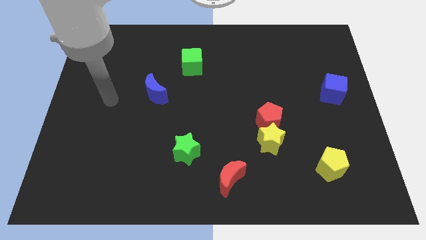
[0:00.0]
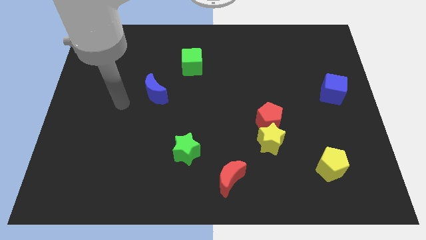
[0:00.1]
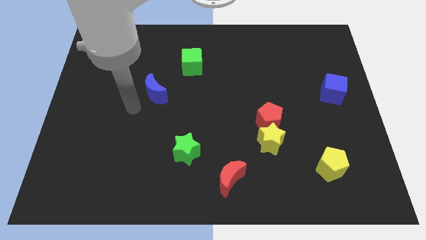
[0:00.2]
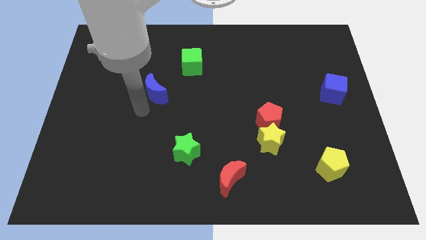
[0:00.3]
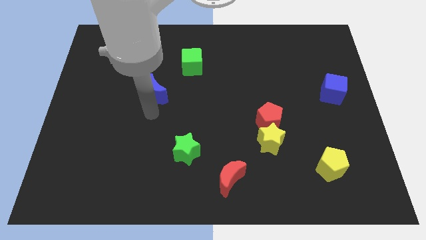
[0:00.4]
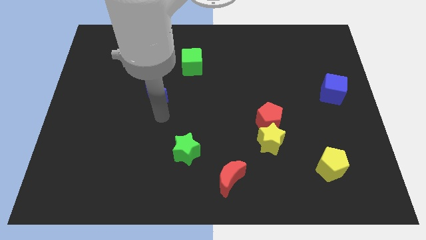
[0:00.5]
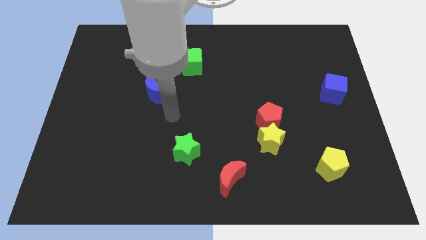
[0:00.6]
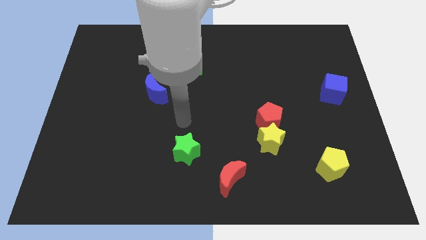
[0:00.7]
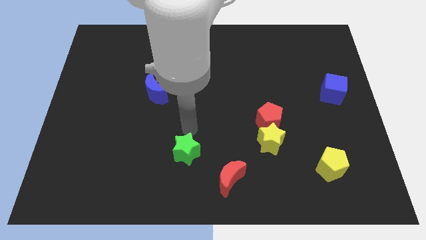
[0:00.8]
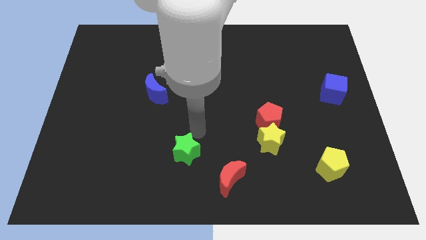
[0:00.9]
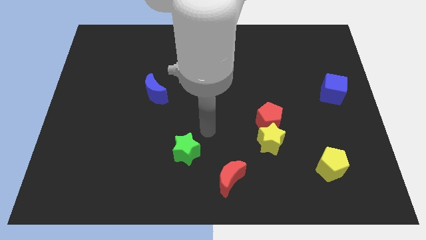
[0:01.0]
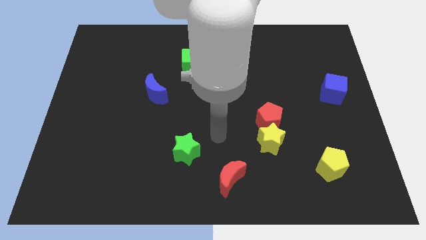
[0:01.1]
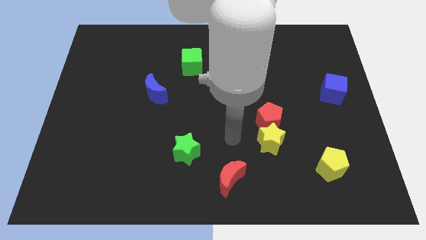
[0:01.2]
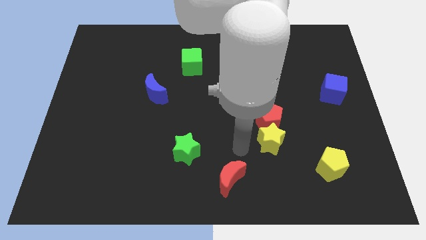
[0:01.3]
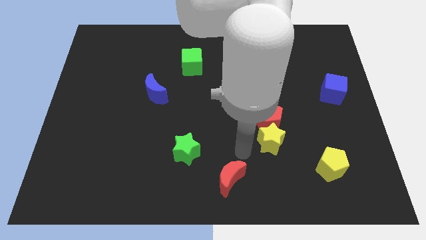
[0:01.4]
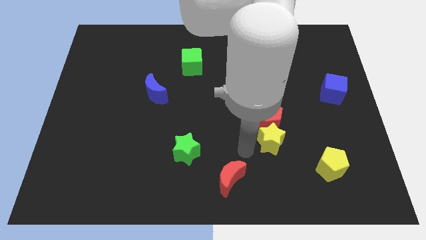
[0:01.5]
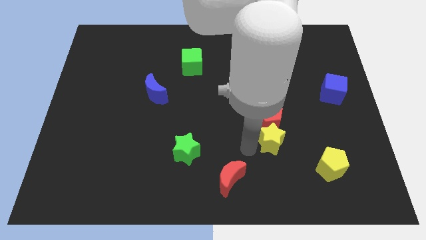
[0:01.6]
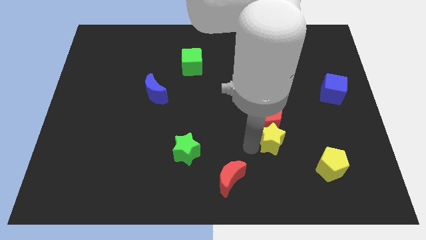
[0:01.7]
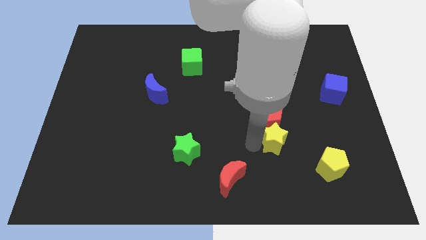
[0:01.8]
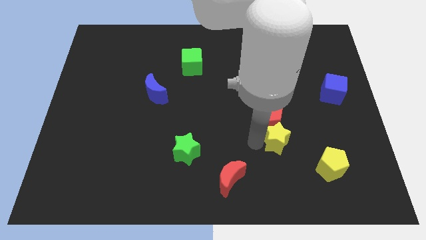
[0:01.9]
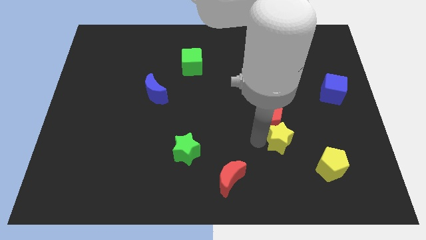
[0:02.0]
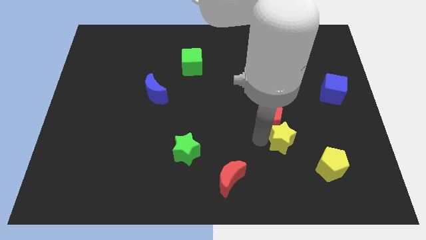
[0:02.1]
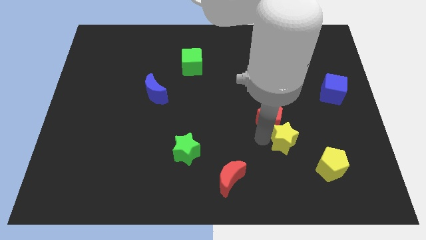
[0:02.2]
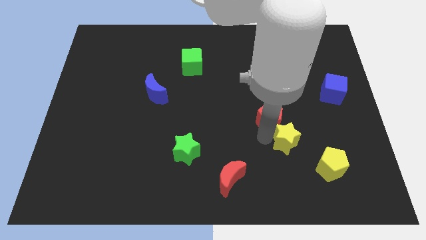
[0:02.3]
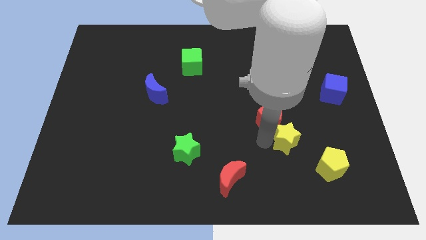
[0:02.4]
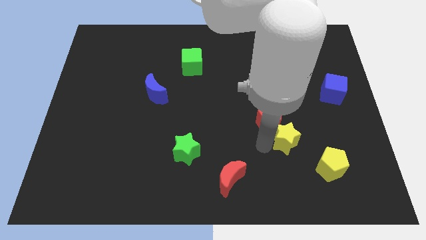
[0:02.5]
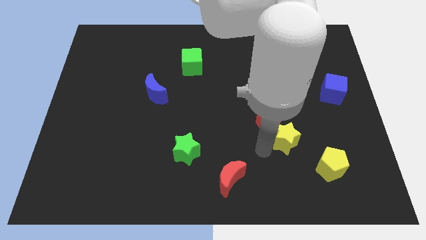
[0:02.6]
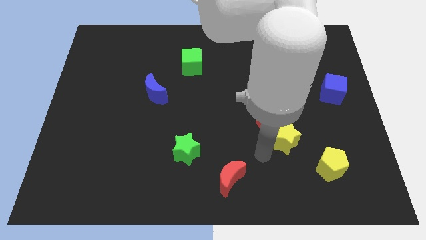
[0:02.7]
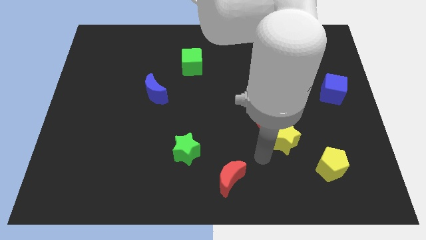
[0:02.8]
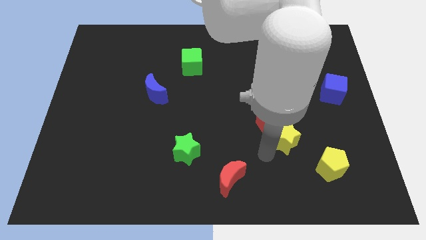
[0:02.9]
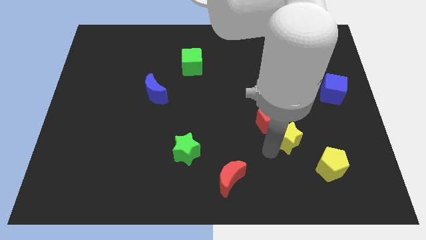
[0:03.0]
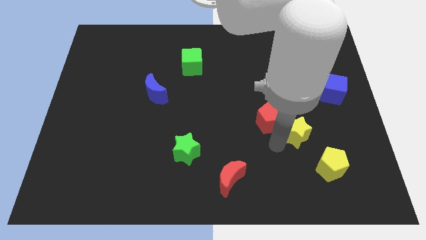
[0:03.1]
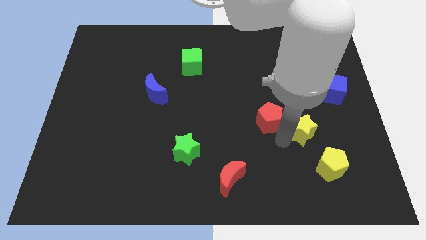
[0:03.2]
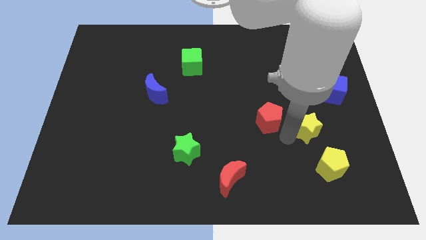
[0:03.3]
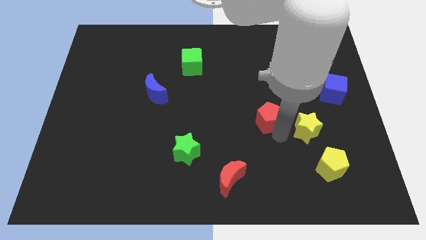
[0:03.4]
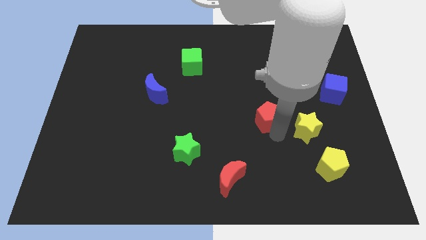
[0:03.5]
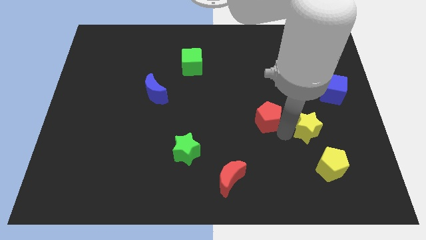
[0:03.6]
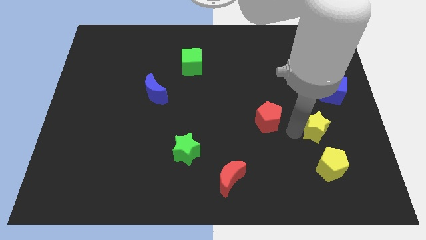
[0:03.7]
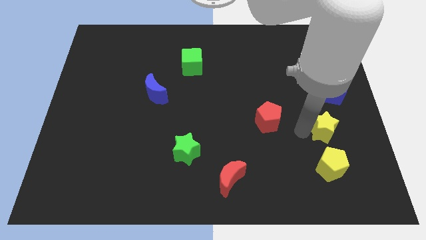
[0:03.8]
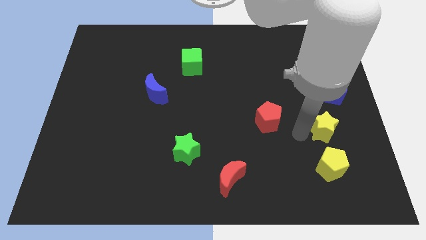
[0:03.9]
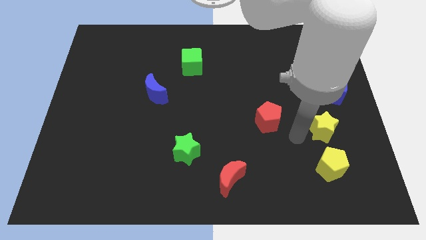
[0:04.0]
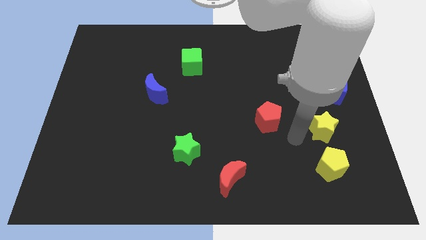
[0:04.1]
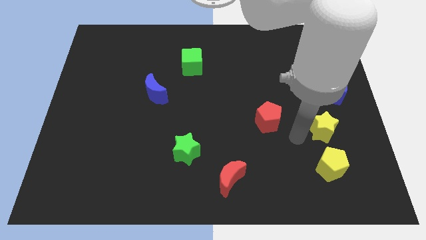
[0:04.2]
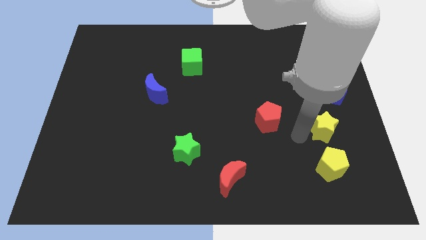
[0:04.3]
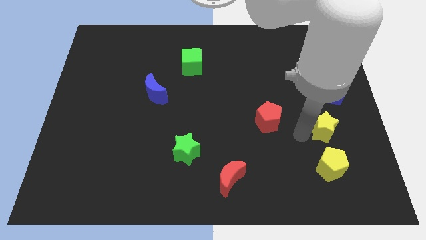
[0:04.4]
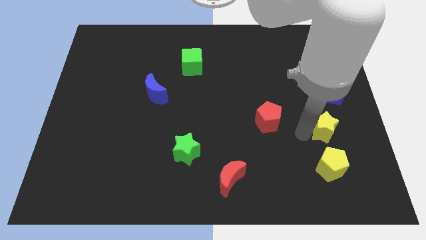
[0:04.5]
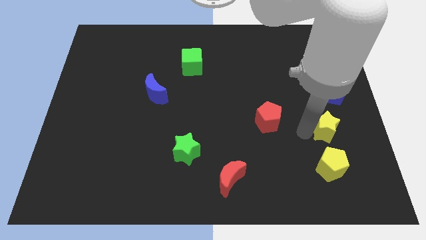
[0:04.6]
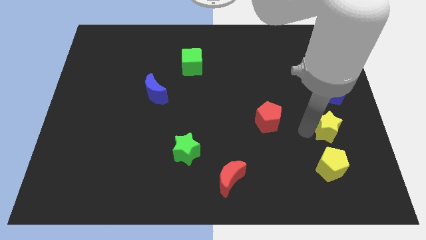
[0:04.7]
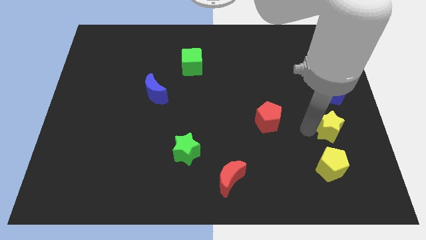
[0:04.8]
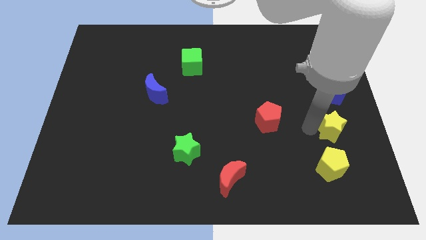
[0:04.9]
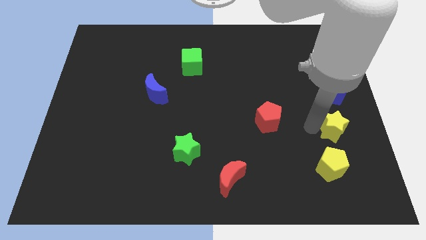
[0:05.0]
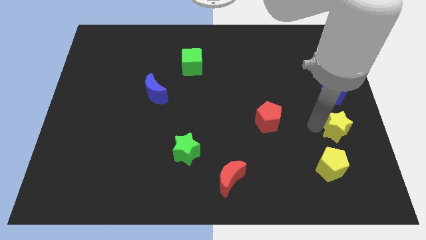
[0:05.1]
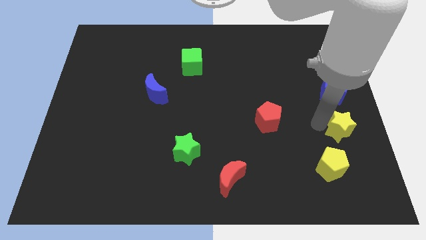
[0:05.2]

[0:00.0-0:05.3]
push the yellow star to the right side of the board
